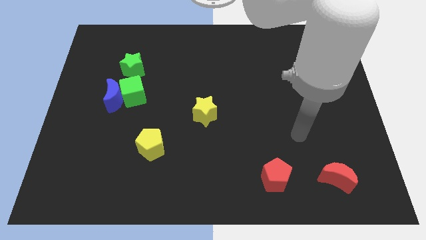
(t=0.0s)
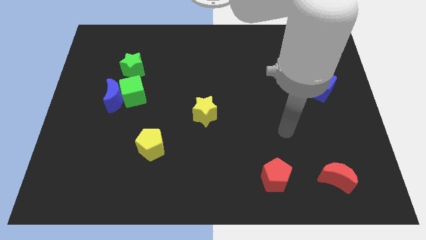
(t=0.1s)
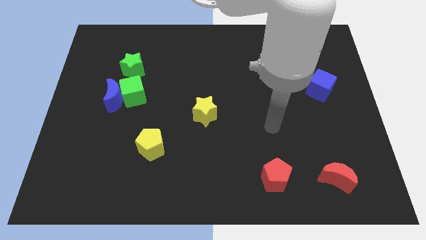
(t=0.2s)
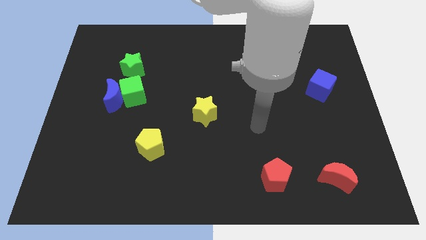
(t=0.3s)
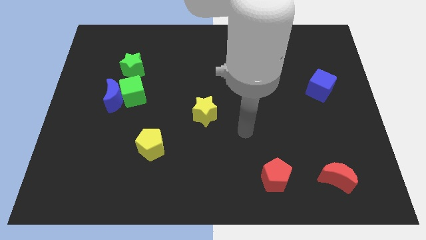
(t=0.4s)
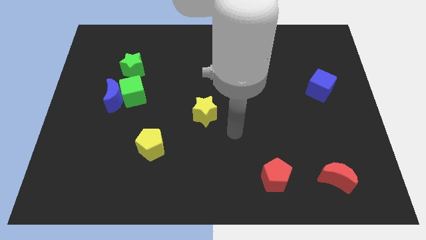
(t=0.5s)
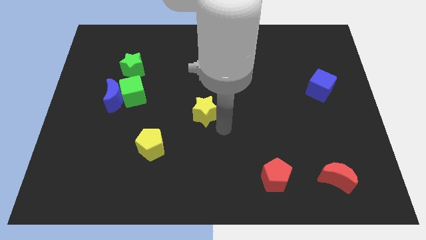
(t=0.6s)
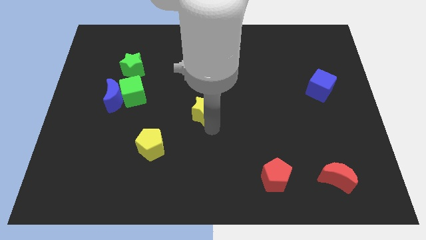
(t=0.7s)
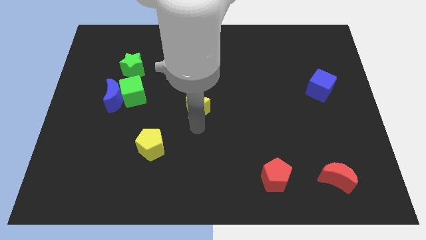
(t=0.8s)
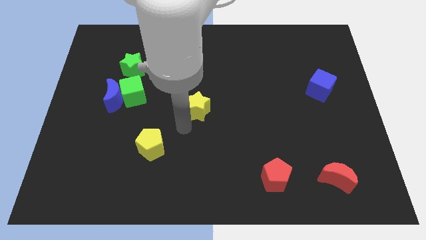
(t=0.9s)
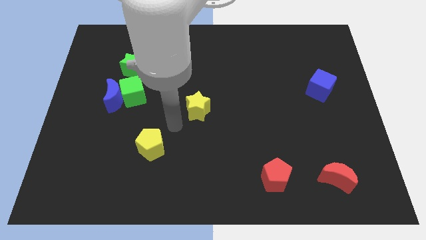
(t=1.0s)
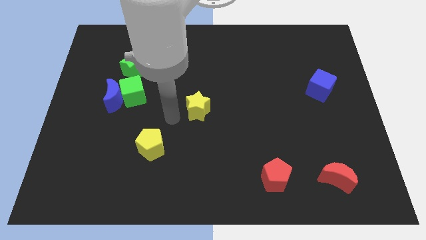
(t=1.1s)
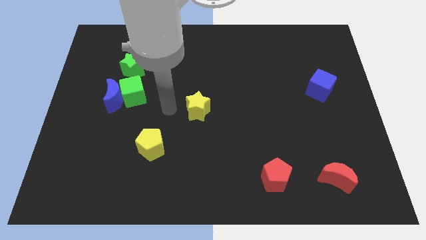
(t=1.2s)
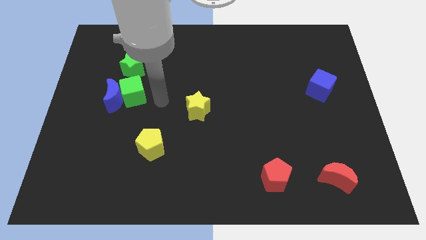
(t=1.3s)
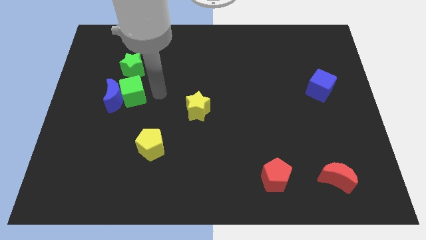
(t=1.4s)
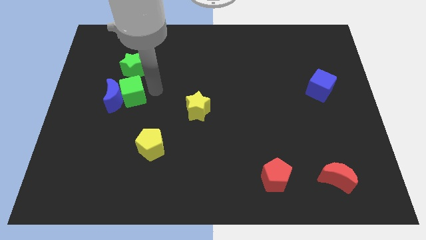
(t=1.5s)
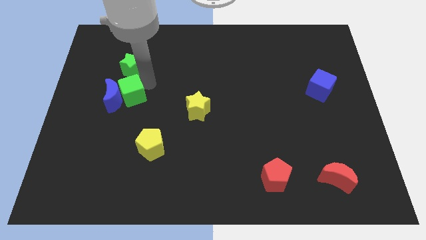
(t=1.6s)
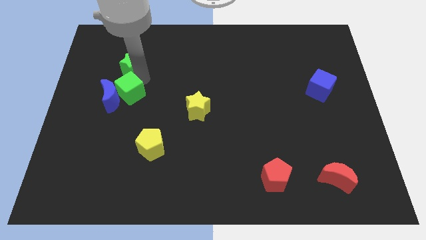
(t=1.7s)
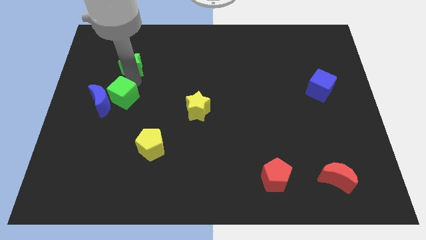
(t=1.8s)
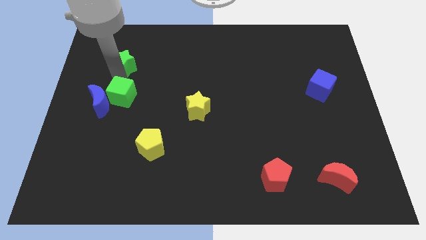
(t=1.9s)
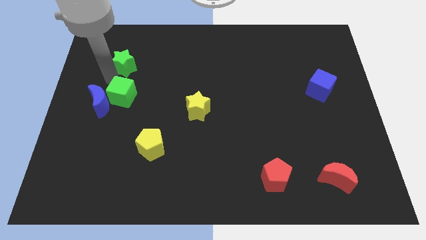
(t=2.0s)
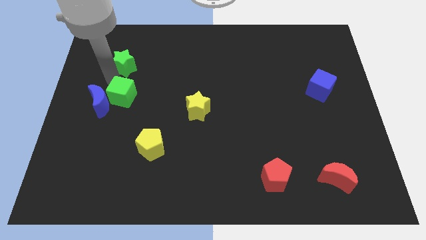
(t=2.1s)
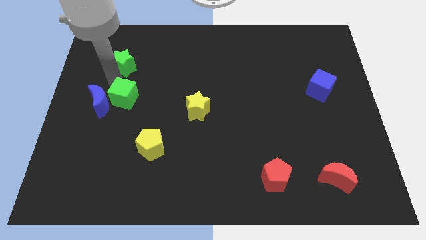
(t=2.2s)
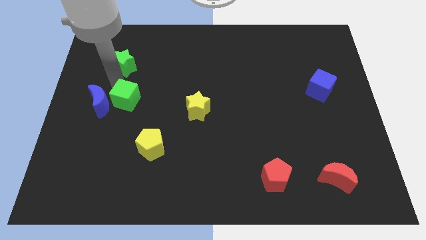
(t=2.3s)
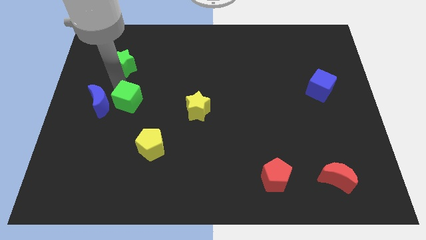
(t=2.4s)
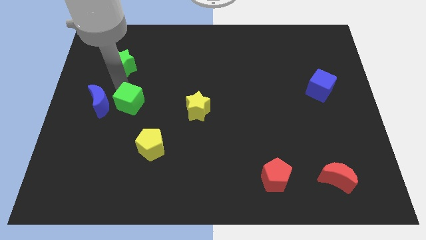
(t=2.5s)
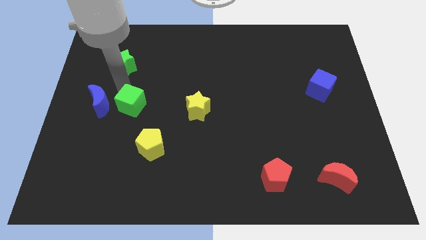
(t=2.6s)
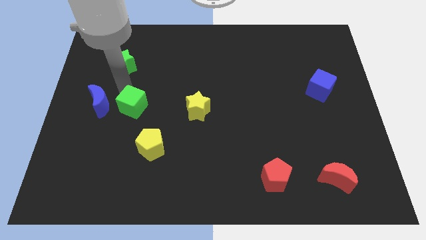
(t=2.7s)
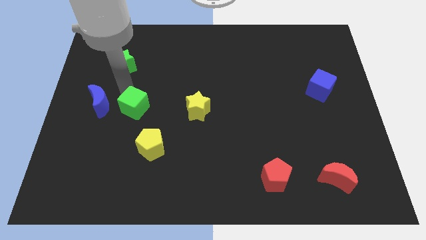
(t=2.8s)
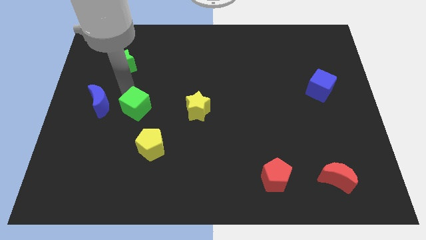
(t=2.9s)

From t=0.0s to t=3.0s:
move the green cube away from the blue moon and green star

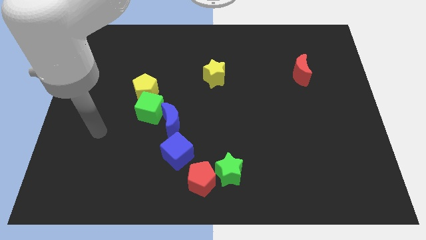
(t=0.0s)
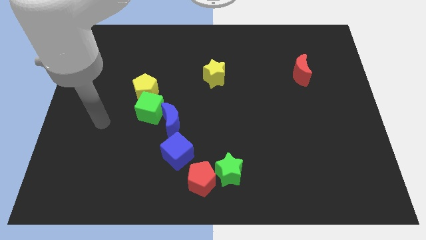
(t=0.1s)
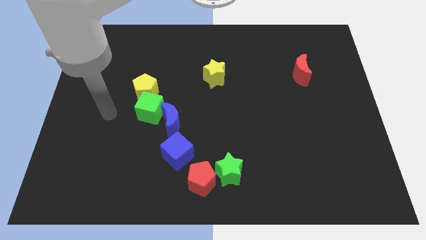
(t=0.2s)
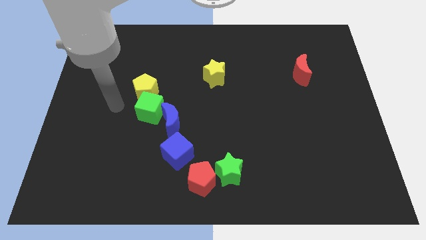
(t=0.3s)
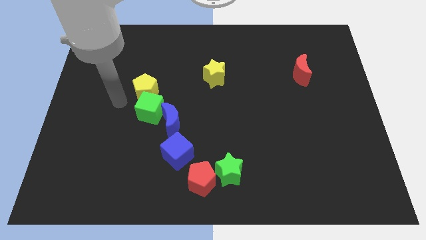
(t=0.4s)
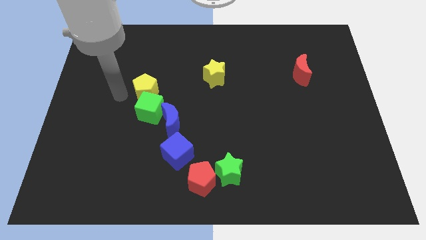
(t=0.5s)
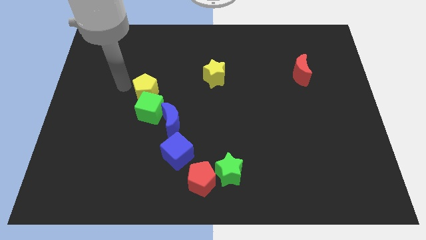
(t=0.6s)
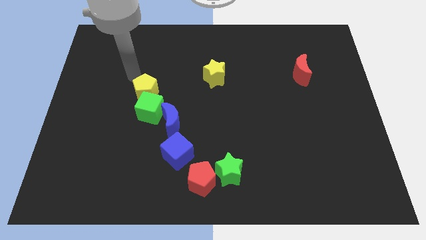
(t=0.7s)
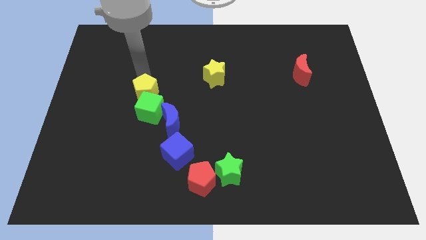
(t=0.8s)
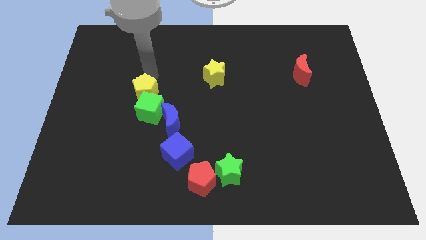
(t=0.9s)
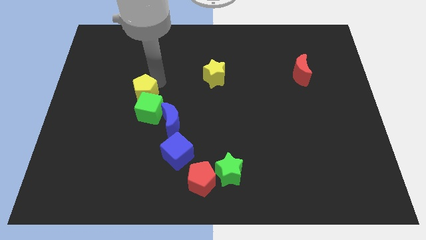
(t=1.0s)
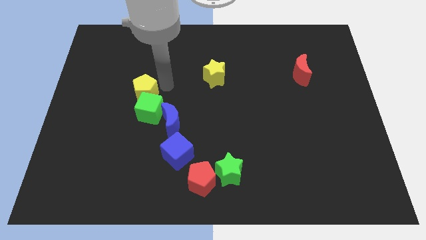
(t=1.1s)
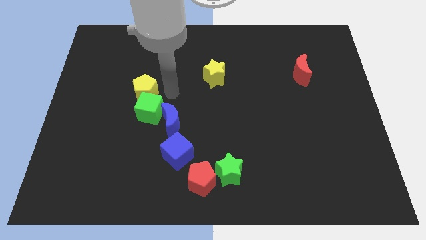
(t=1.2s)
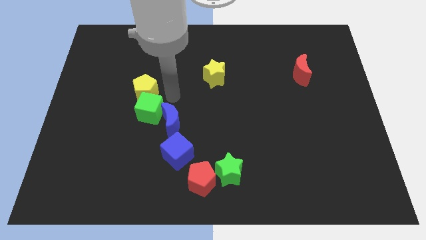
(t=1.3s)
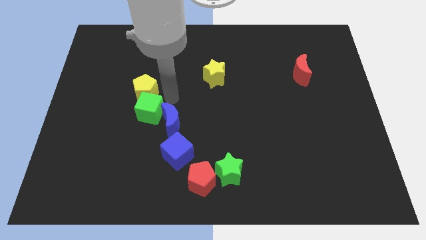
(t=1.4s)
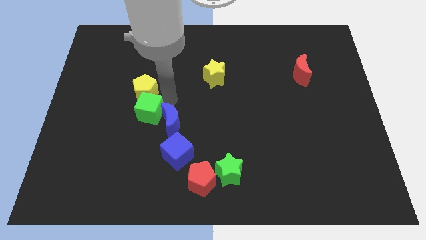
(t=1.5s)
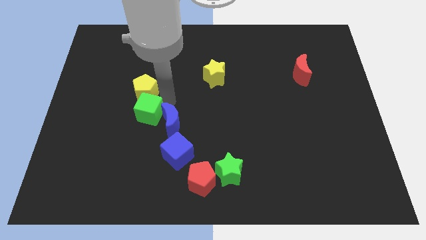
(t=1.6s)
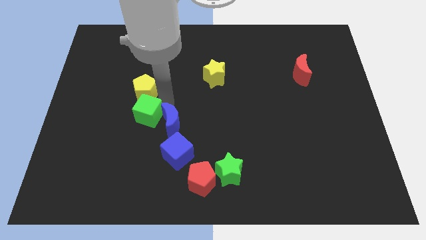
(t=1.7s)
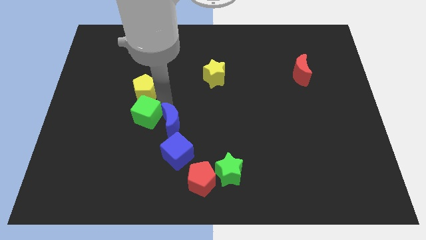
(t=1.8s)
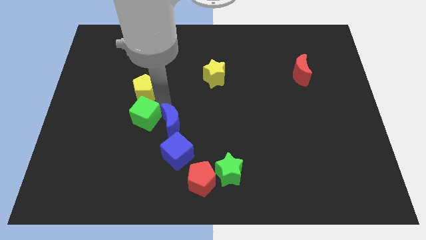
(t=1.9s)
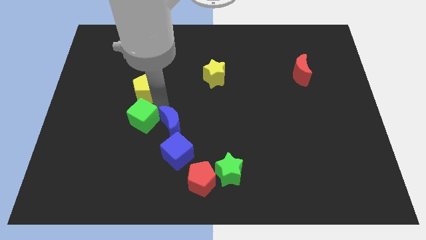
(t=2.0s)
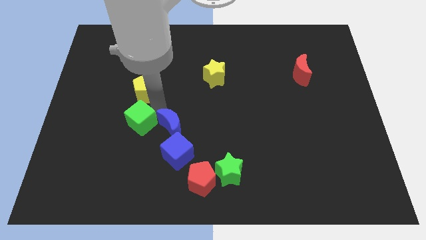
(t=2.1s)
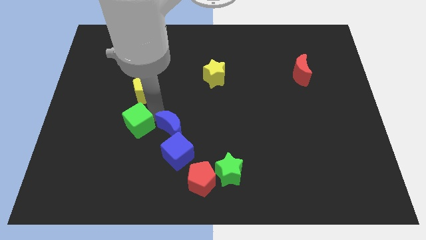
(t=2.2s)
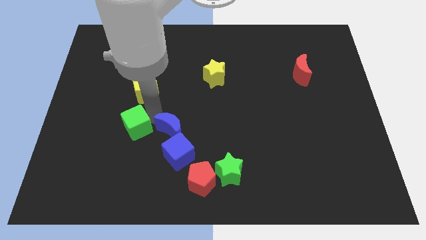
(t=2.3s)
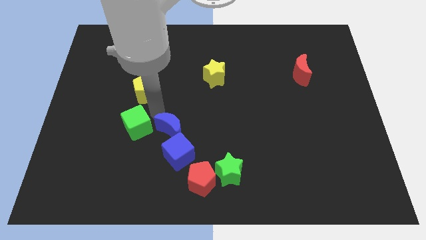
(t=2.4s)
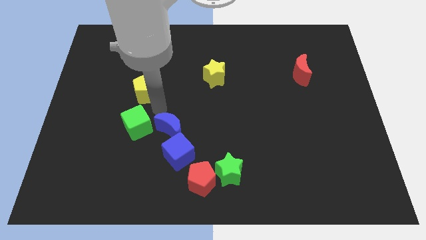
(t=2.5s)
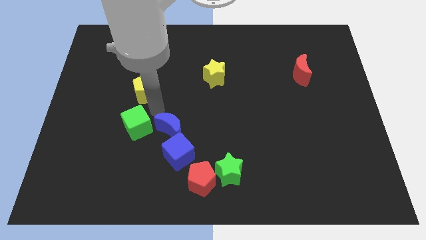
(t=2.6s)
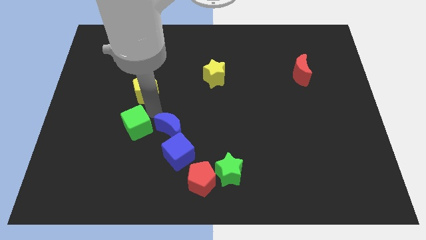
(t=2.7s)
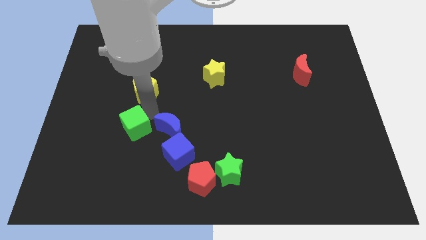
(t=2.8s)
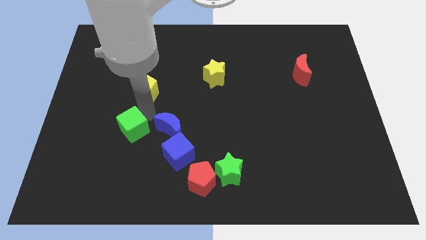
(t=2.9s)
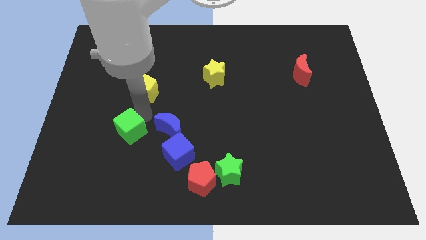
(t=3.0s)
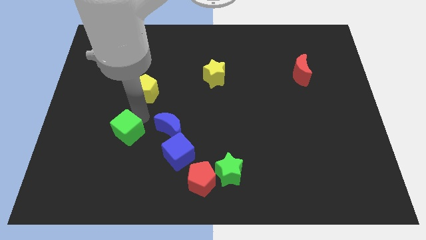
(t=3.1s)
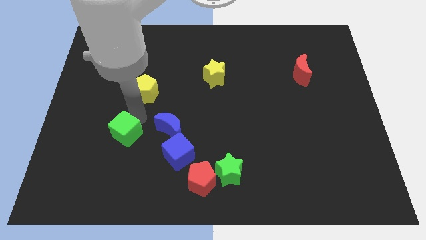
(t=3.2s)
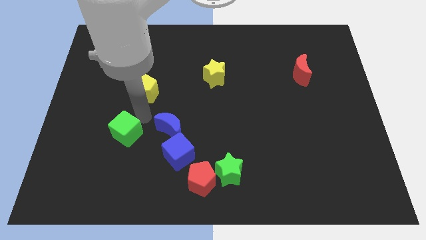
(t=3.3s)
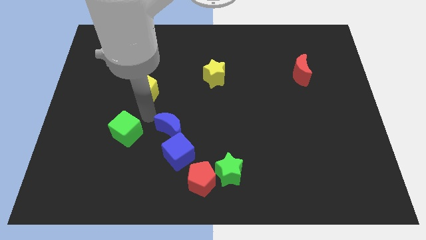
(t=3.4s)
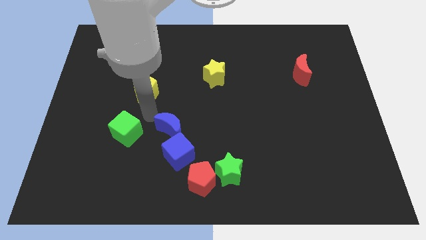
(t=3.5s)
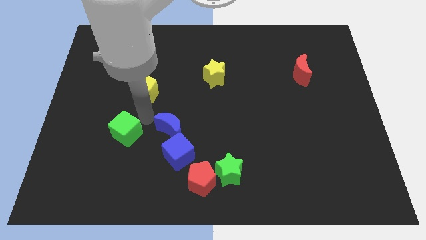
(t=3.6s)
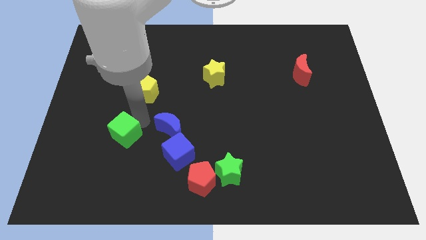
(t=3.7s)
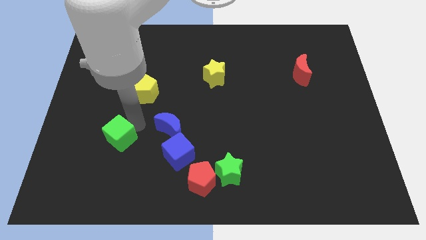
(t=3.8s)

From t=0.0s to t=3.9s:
pull the green cube apart from the blue moon and yellow pentagon

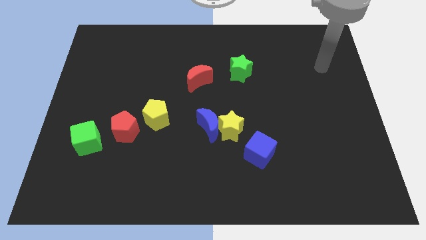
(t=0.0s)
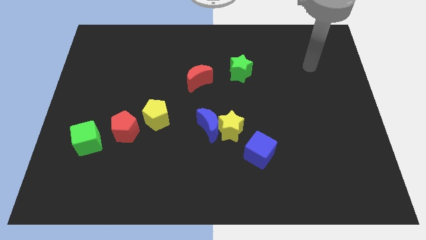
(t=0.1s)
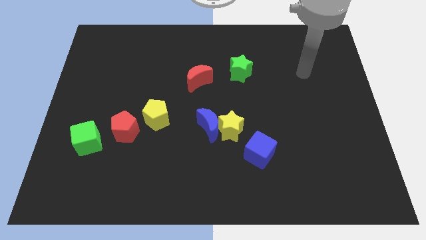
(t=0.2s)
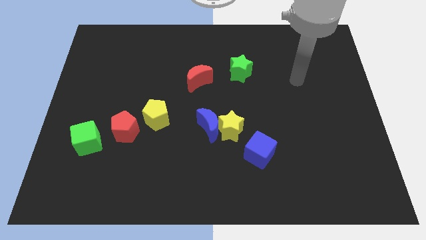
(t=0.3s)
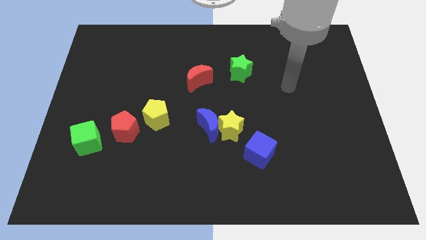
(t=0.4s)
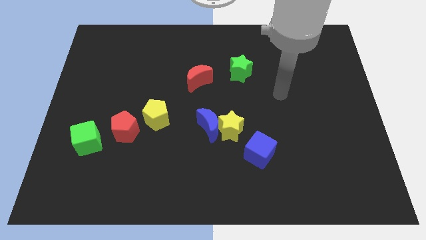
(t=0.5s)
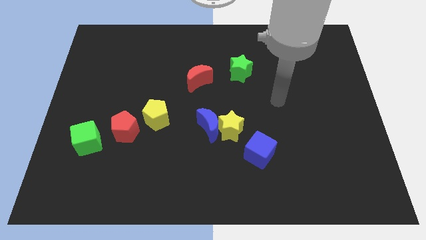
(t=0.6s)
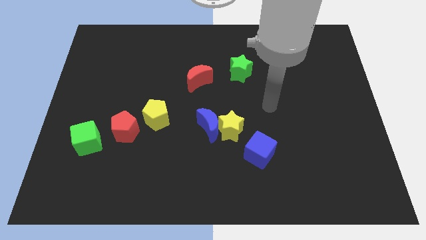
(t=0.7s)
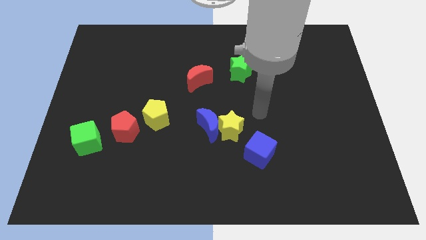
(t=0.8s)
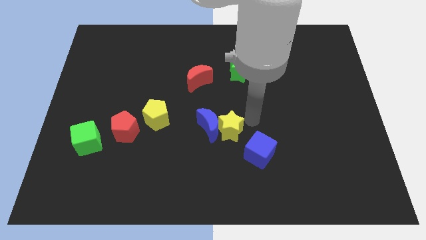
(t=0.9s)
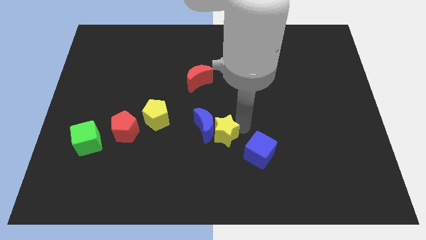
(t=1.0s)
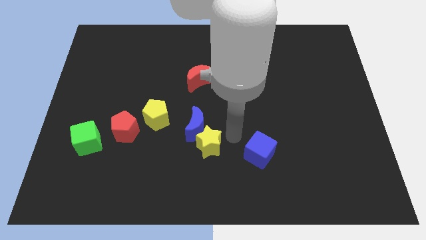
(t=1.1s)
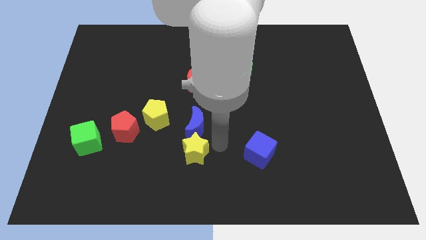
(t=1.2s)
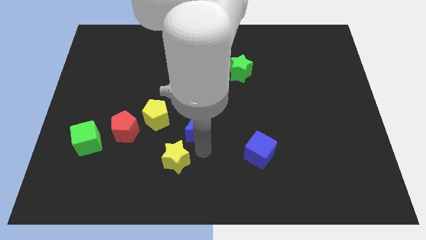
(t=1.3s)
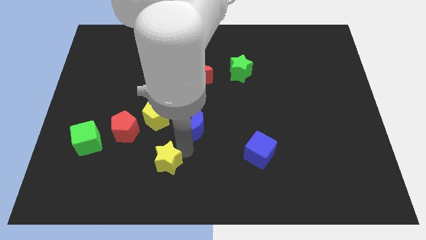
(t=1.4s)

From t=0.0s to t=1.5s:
pull the blue moon apart from the yellow star

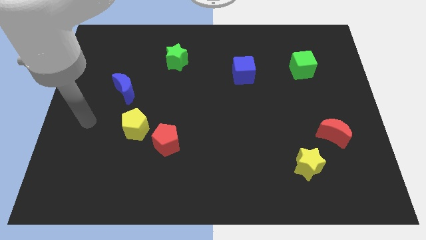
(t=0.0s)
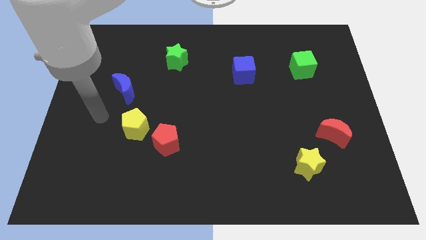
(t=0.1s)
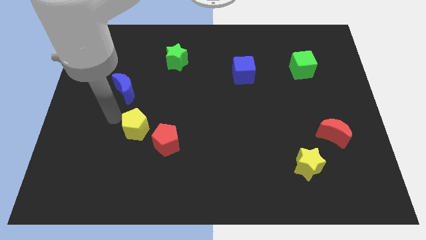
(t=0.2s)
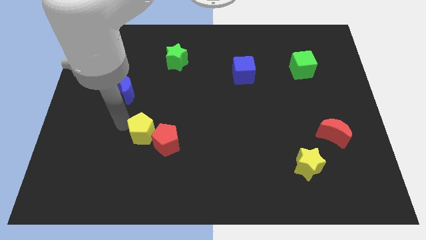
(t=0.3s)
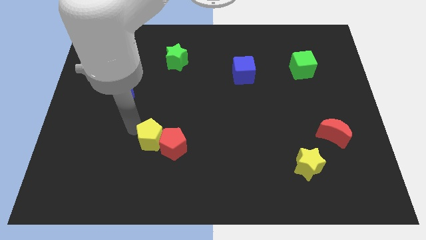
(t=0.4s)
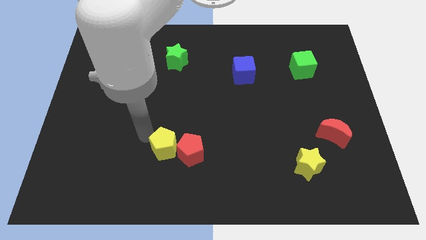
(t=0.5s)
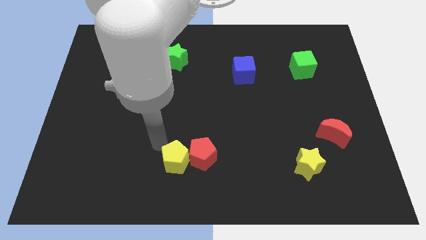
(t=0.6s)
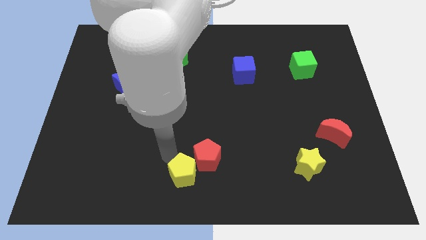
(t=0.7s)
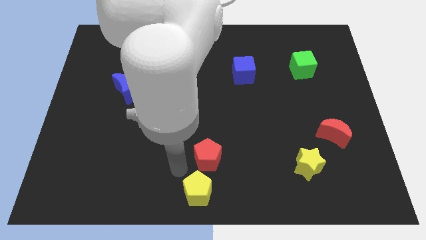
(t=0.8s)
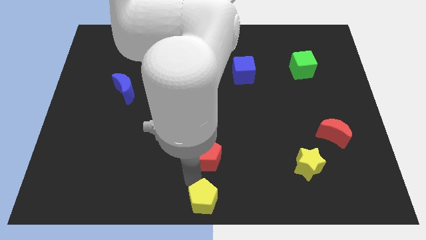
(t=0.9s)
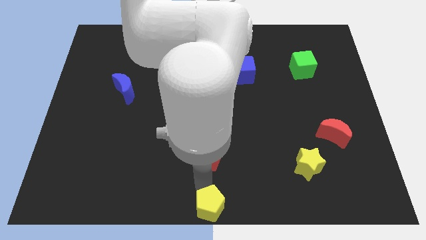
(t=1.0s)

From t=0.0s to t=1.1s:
pull the red pentagon apart from the yellow pentagon

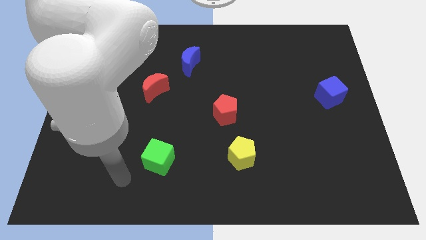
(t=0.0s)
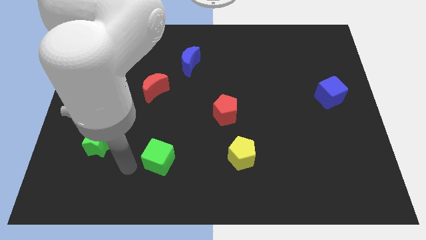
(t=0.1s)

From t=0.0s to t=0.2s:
move the green star away from the yellow star
